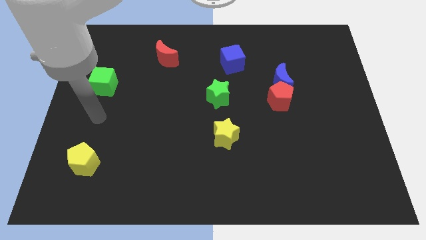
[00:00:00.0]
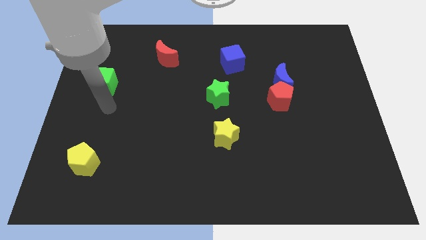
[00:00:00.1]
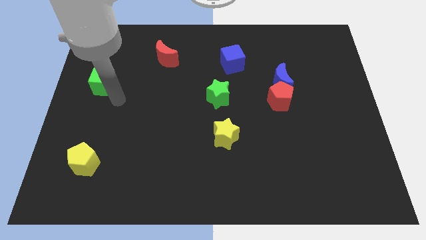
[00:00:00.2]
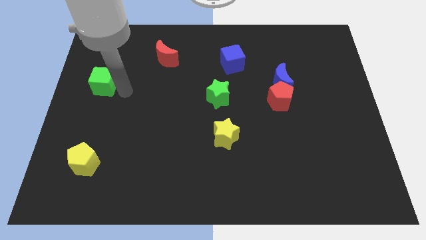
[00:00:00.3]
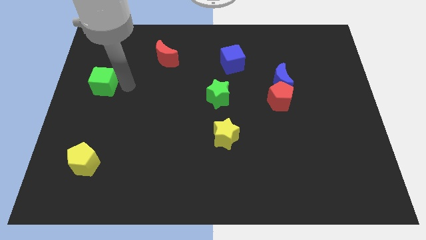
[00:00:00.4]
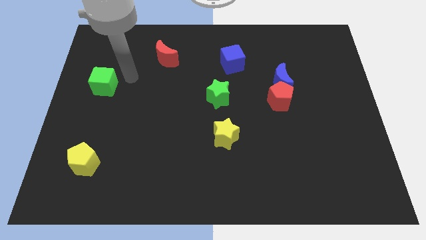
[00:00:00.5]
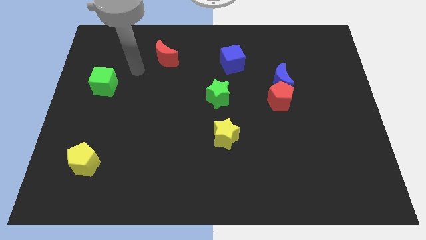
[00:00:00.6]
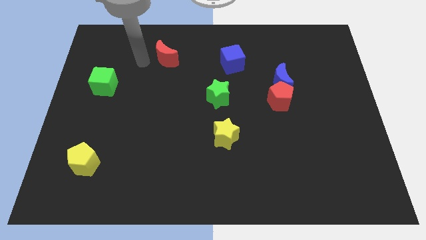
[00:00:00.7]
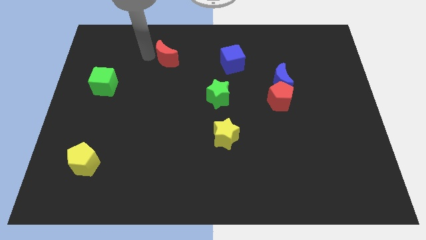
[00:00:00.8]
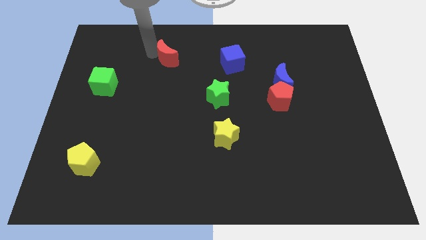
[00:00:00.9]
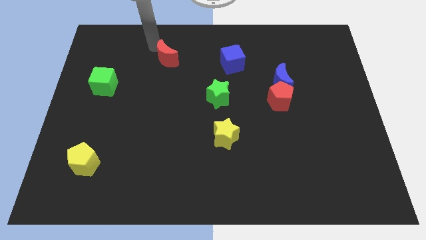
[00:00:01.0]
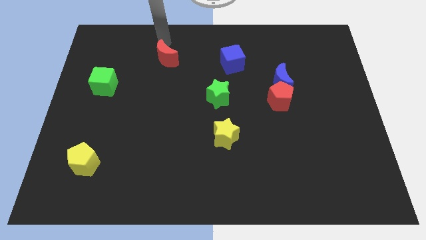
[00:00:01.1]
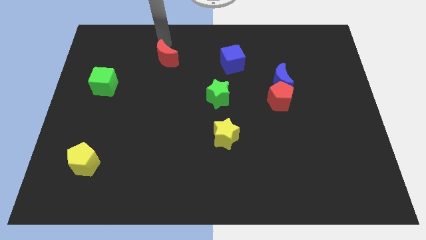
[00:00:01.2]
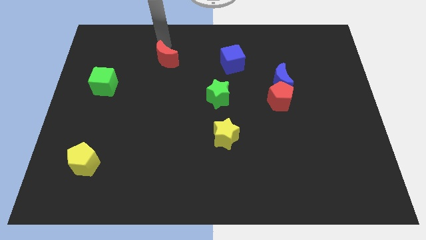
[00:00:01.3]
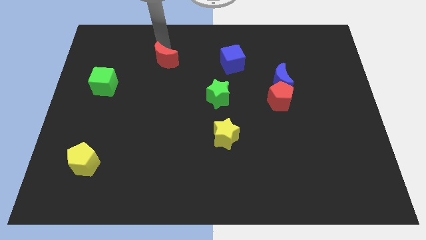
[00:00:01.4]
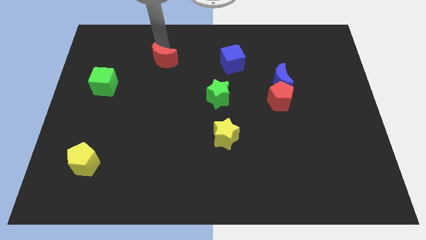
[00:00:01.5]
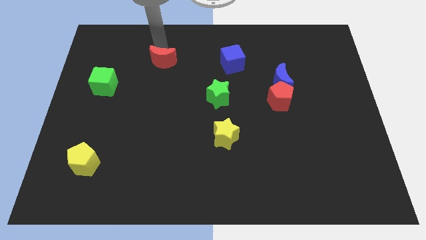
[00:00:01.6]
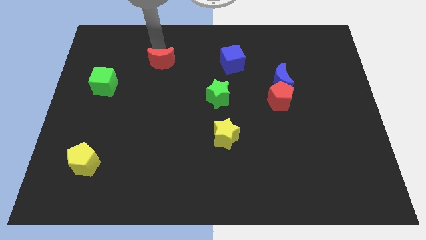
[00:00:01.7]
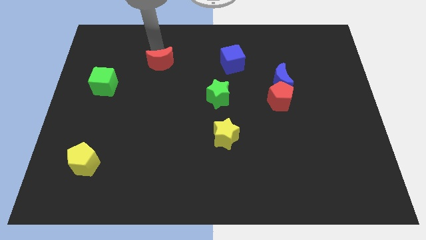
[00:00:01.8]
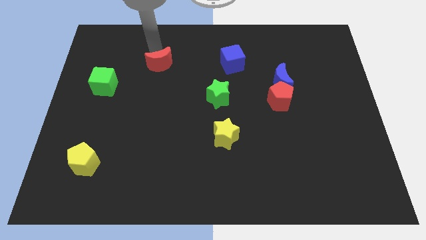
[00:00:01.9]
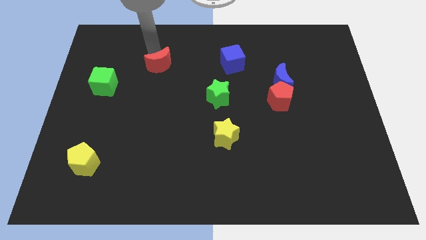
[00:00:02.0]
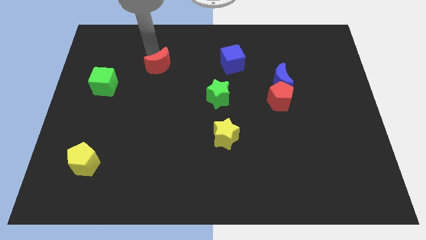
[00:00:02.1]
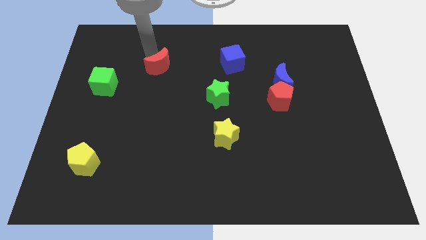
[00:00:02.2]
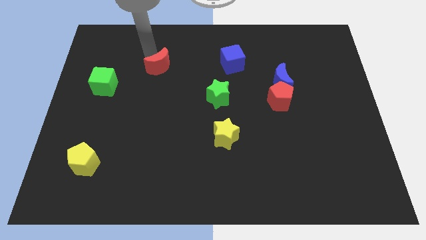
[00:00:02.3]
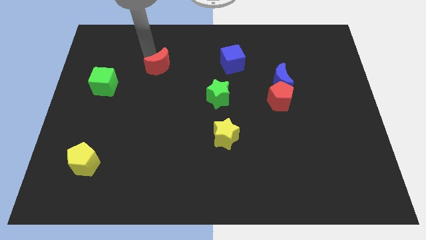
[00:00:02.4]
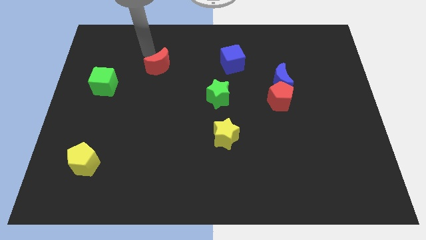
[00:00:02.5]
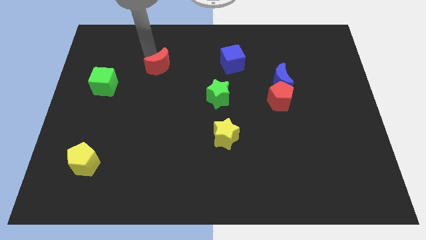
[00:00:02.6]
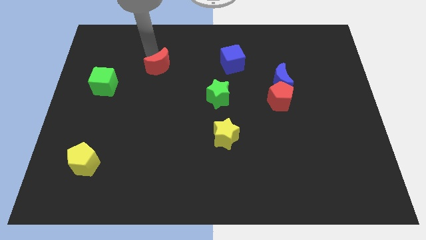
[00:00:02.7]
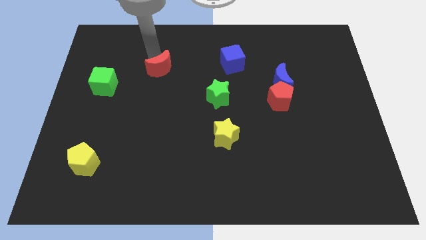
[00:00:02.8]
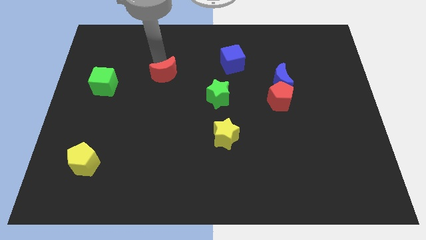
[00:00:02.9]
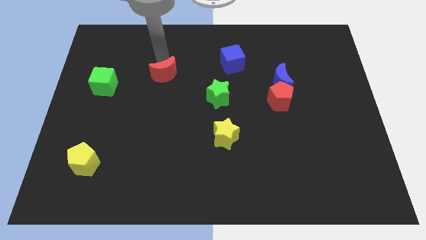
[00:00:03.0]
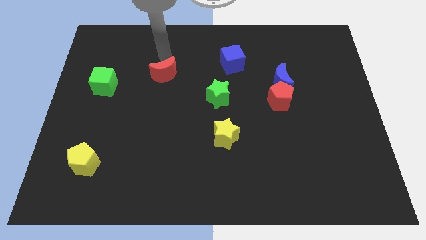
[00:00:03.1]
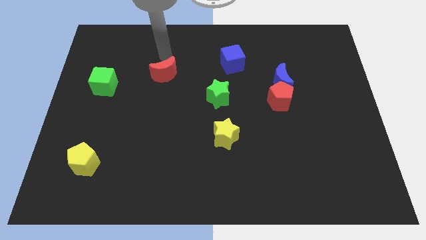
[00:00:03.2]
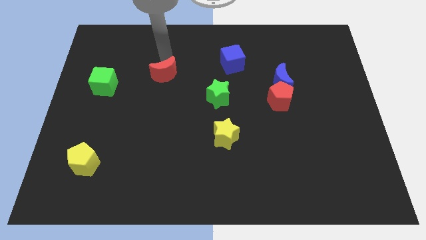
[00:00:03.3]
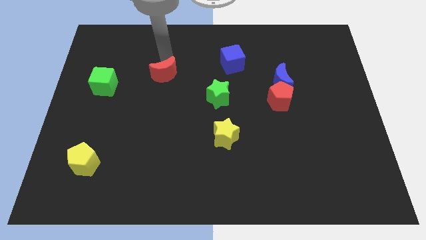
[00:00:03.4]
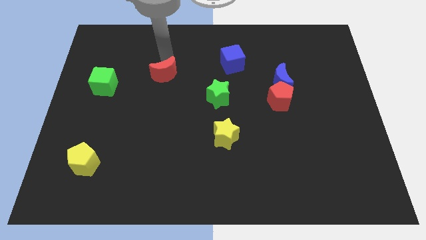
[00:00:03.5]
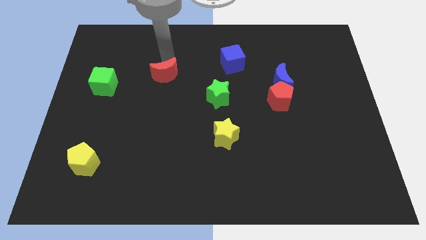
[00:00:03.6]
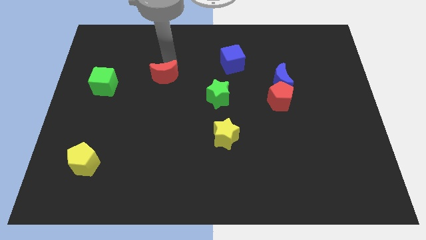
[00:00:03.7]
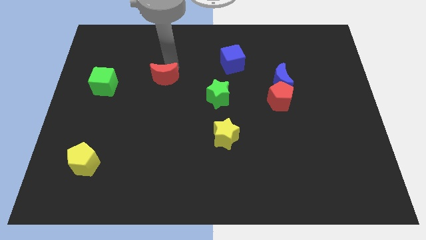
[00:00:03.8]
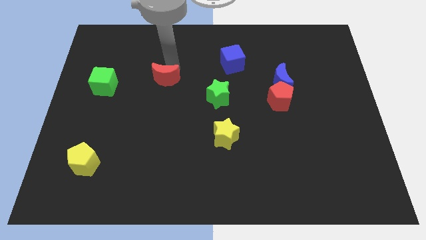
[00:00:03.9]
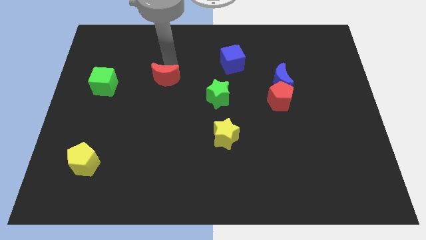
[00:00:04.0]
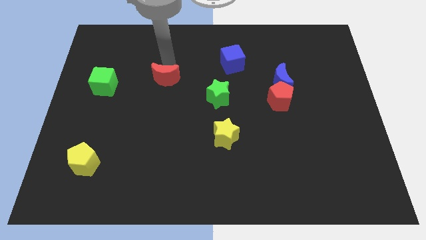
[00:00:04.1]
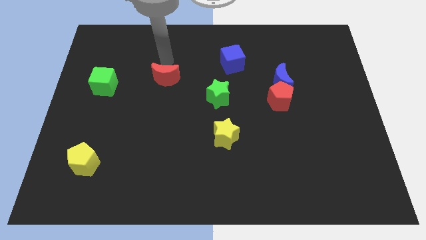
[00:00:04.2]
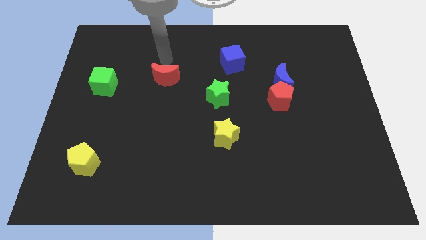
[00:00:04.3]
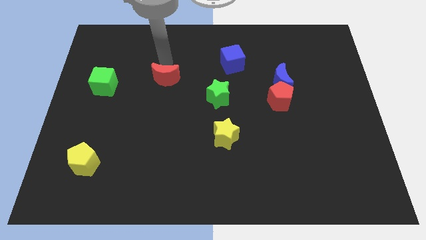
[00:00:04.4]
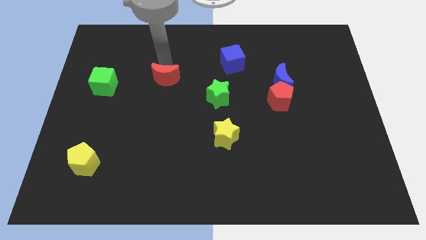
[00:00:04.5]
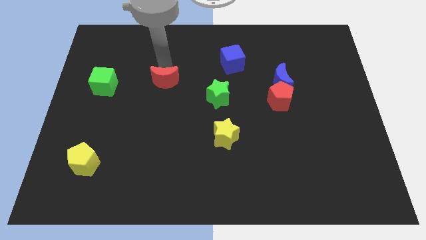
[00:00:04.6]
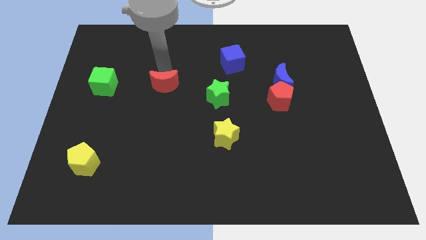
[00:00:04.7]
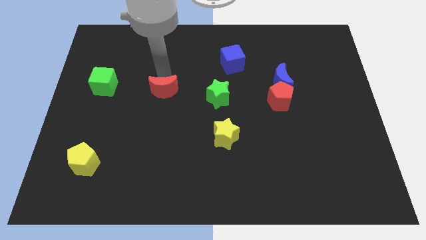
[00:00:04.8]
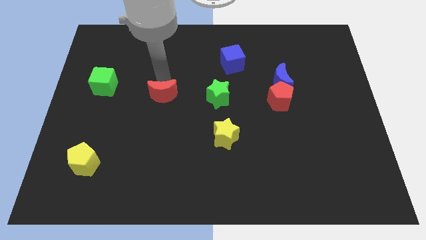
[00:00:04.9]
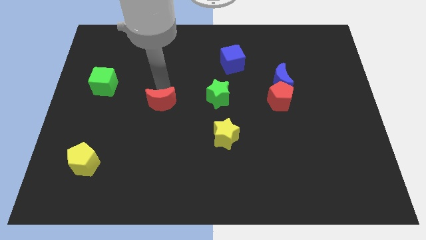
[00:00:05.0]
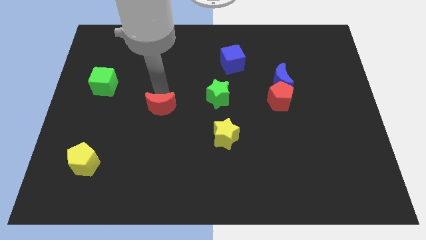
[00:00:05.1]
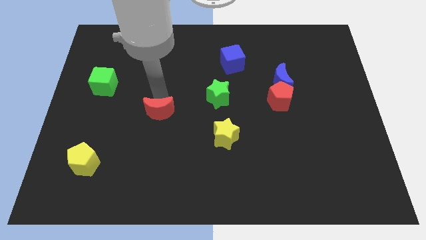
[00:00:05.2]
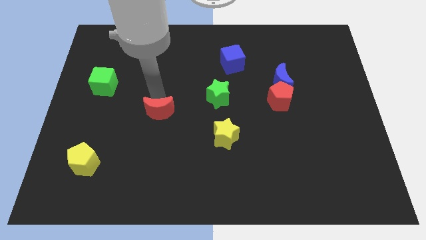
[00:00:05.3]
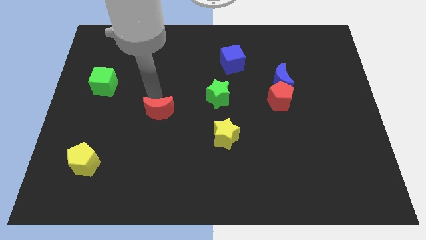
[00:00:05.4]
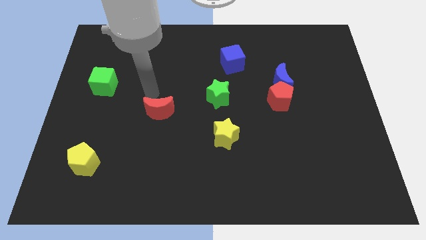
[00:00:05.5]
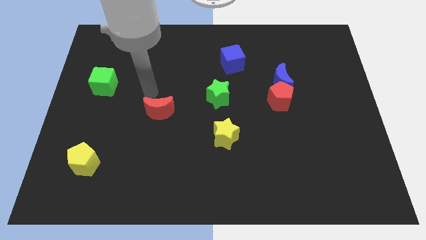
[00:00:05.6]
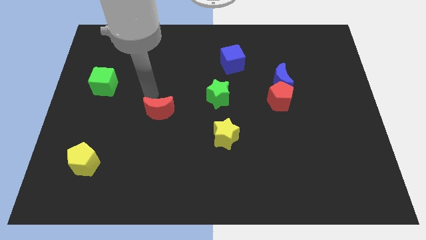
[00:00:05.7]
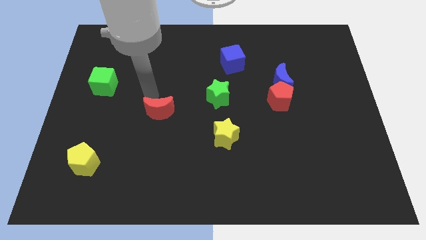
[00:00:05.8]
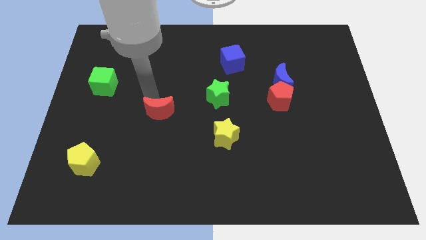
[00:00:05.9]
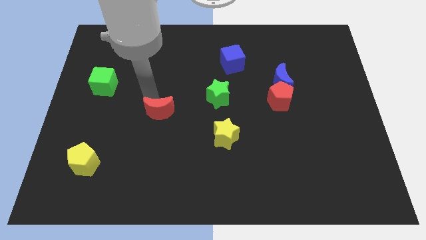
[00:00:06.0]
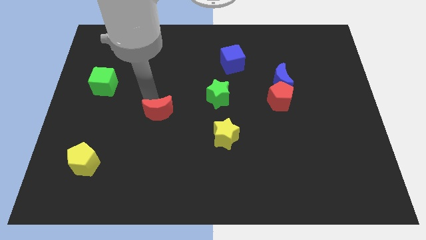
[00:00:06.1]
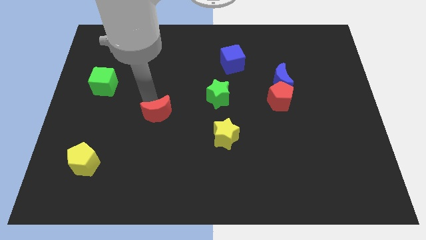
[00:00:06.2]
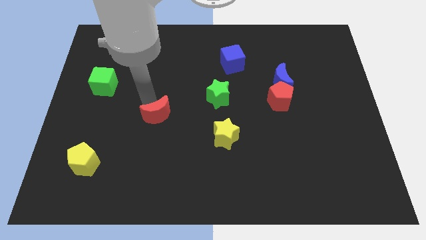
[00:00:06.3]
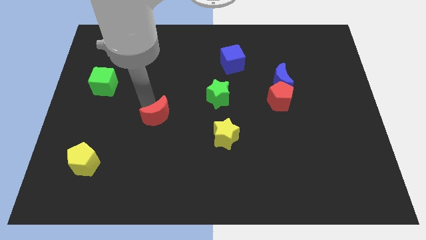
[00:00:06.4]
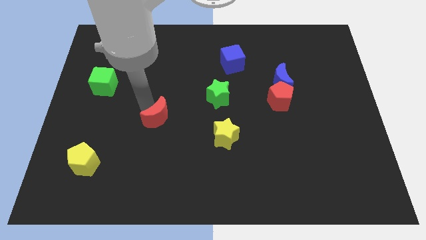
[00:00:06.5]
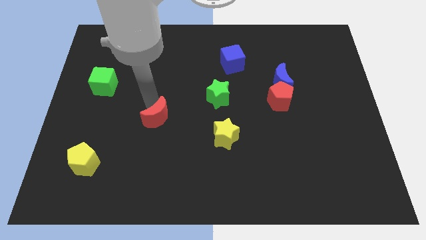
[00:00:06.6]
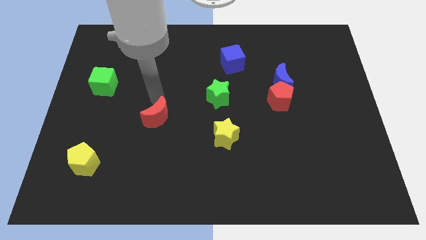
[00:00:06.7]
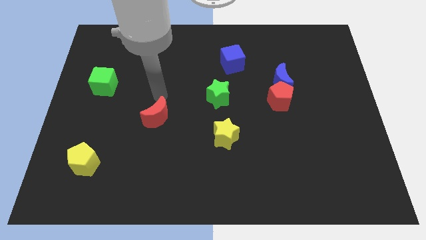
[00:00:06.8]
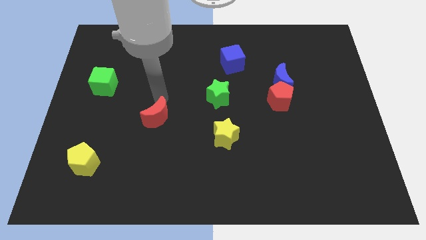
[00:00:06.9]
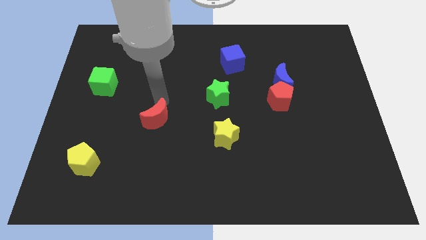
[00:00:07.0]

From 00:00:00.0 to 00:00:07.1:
slide the red moon downwards

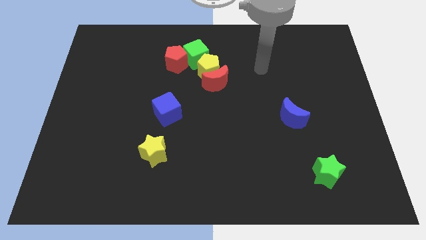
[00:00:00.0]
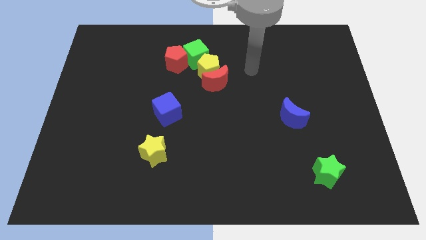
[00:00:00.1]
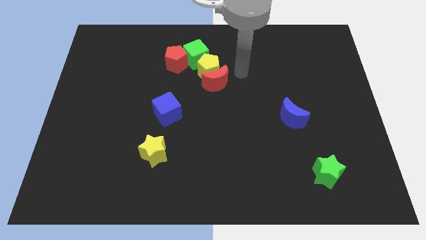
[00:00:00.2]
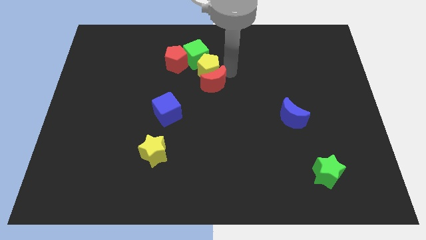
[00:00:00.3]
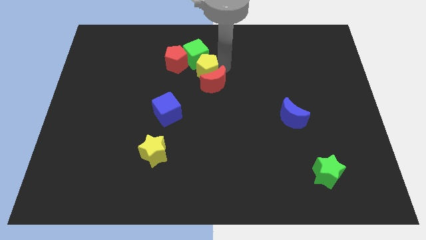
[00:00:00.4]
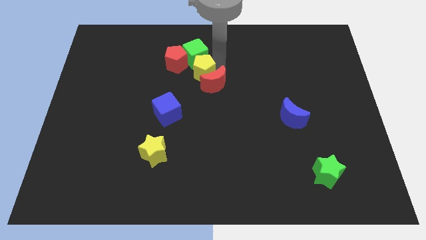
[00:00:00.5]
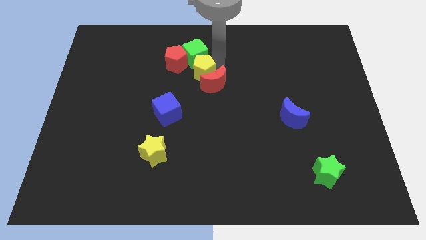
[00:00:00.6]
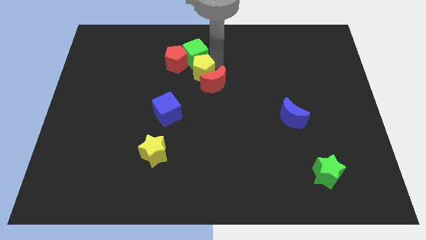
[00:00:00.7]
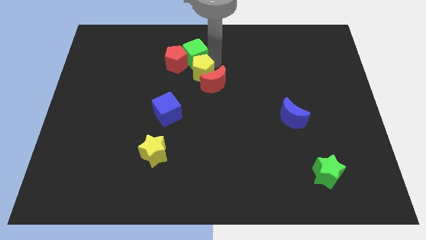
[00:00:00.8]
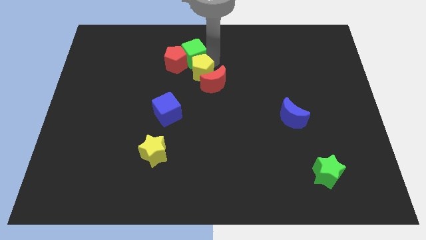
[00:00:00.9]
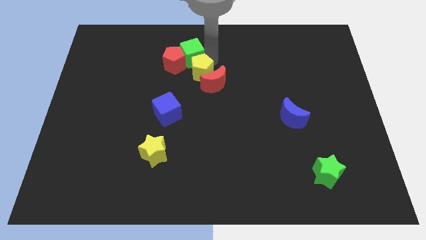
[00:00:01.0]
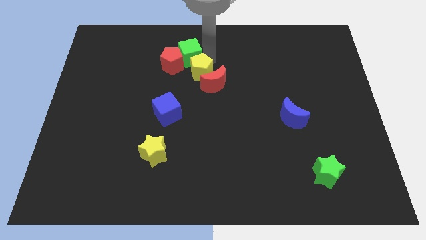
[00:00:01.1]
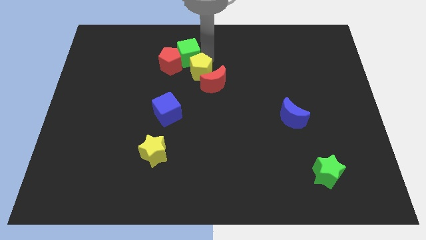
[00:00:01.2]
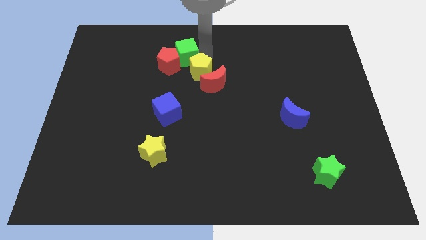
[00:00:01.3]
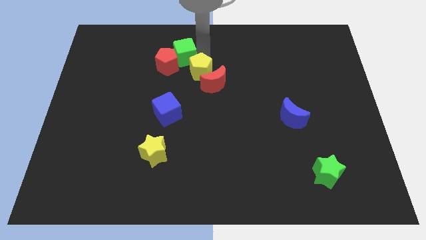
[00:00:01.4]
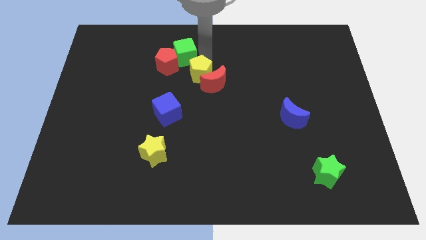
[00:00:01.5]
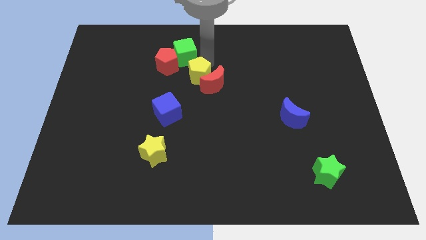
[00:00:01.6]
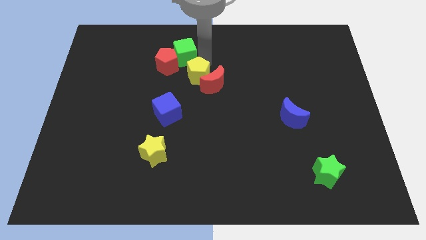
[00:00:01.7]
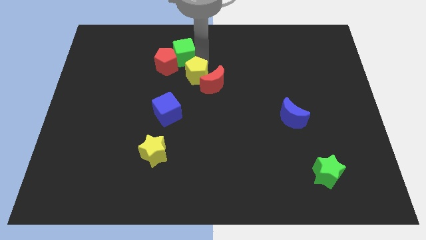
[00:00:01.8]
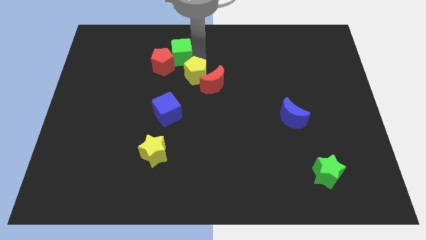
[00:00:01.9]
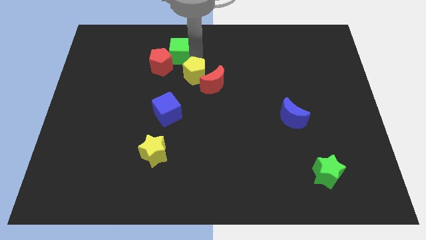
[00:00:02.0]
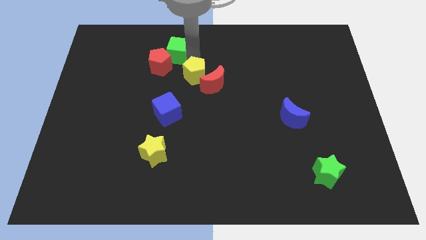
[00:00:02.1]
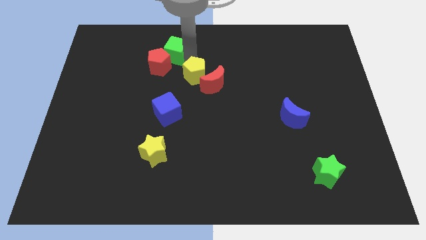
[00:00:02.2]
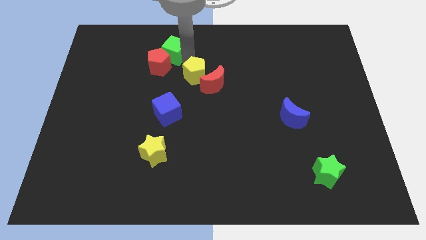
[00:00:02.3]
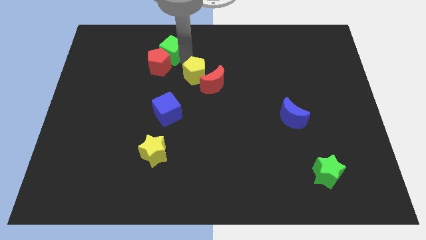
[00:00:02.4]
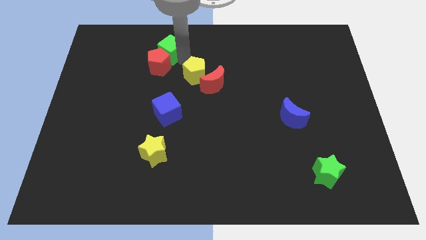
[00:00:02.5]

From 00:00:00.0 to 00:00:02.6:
slightly move the green cube left
